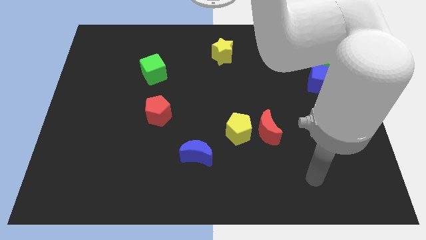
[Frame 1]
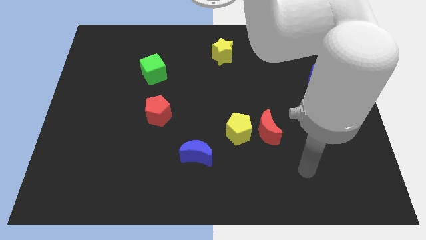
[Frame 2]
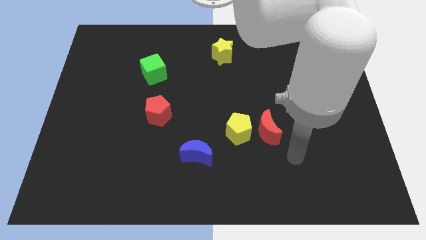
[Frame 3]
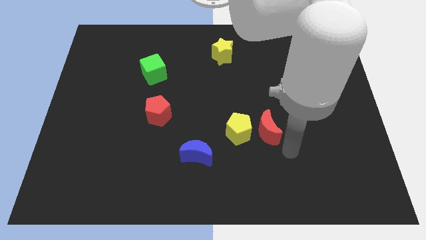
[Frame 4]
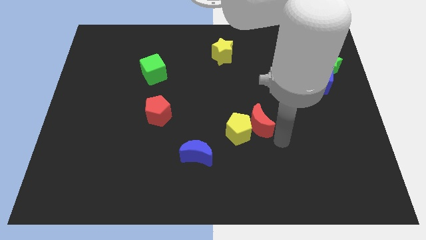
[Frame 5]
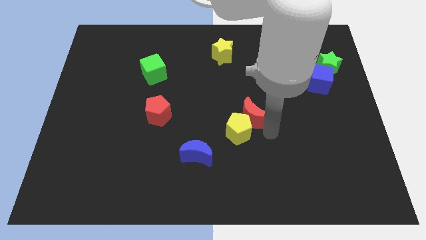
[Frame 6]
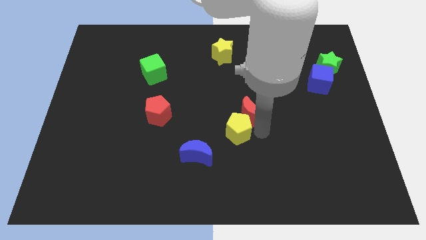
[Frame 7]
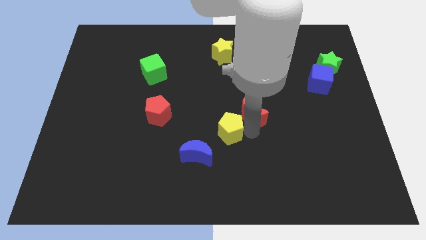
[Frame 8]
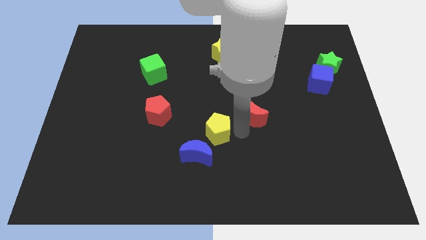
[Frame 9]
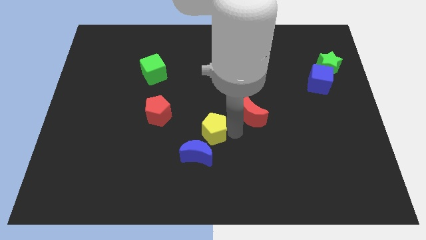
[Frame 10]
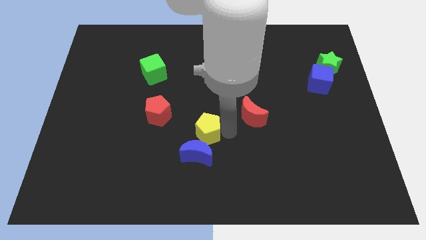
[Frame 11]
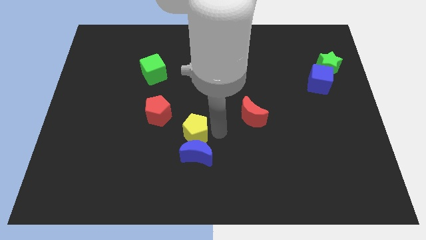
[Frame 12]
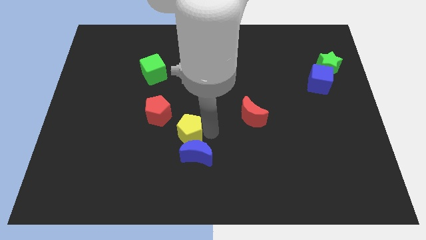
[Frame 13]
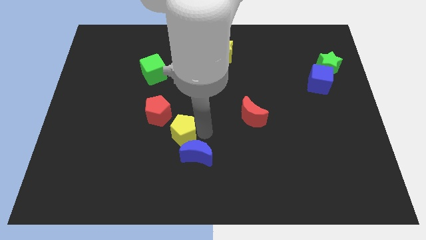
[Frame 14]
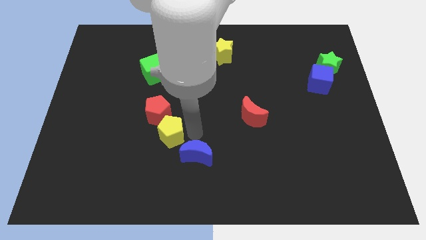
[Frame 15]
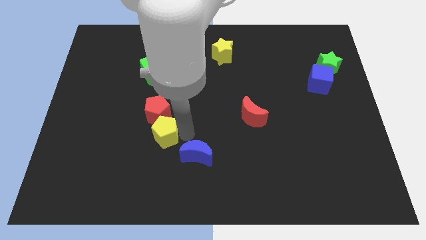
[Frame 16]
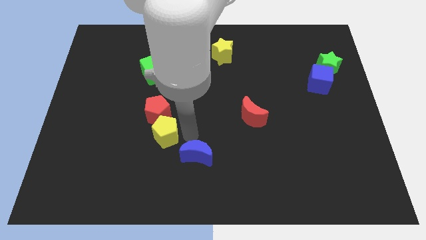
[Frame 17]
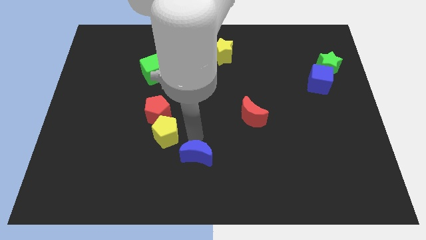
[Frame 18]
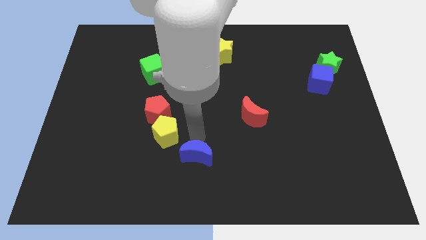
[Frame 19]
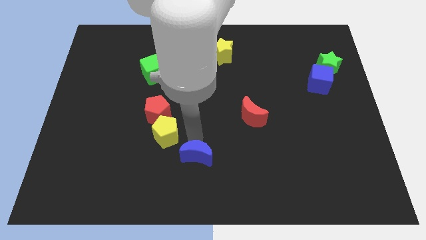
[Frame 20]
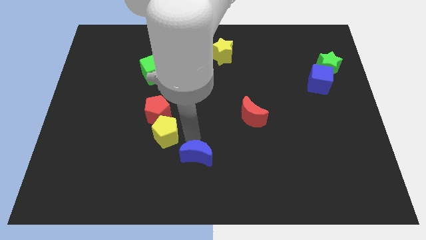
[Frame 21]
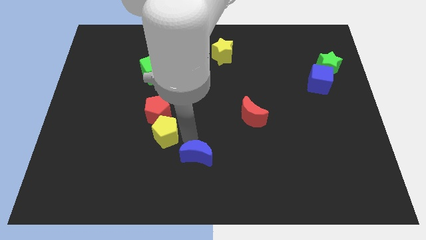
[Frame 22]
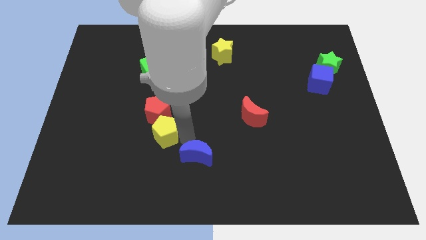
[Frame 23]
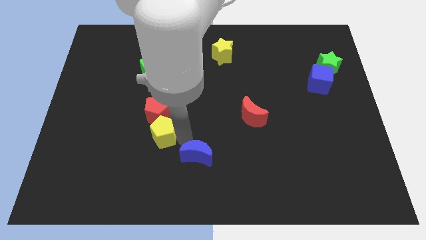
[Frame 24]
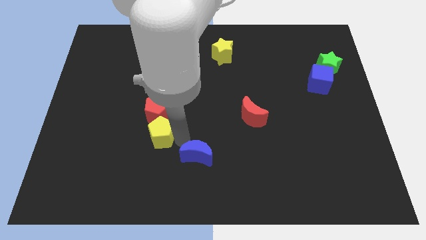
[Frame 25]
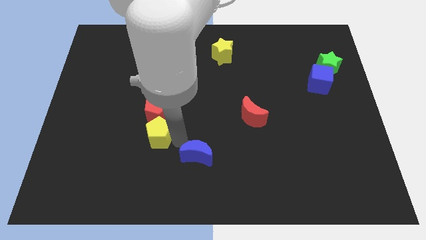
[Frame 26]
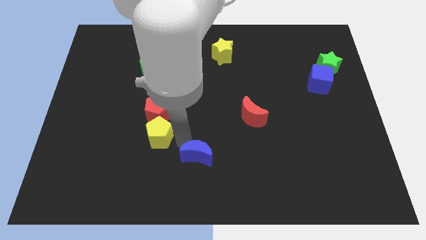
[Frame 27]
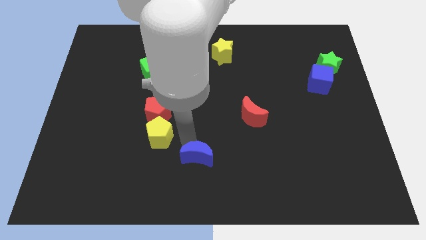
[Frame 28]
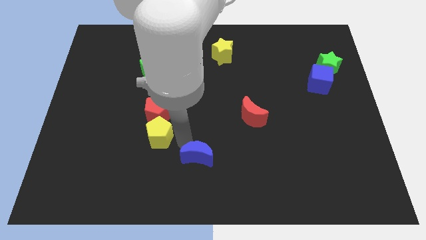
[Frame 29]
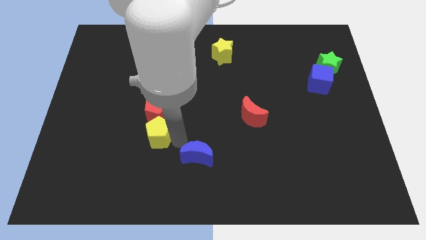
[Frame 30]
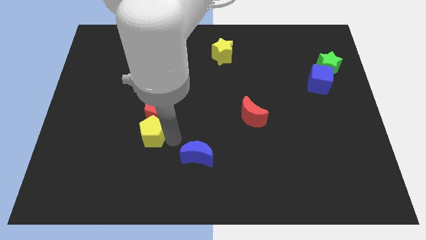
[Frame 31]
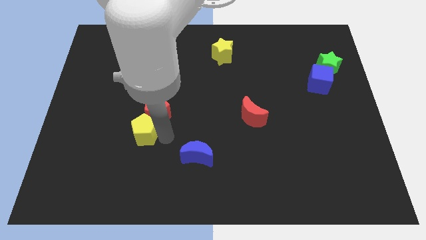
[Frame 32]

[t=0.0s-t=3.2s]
slide the yellow pentagon left

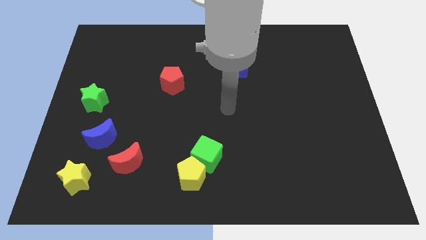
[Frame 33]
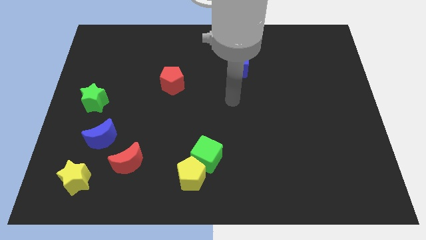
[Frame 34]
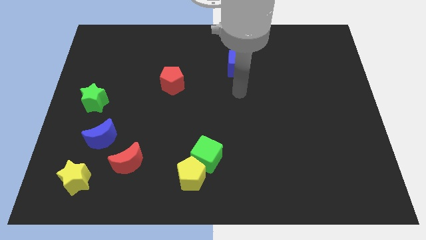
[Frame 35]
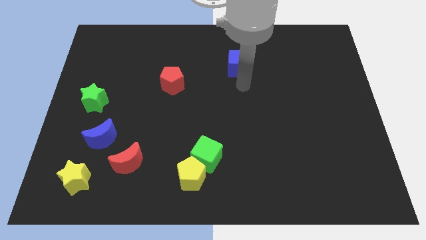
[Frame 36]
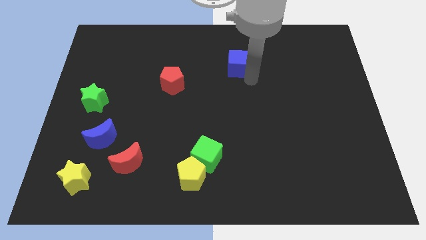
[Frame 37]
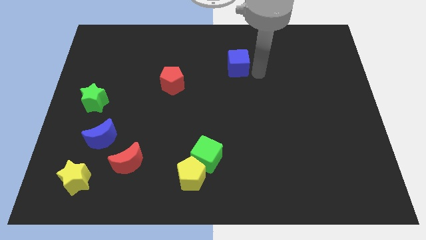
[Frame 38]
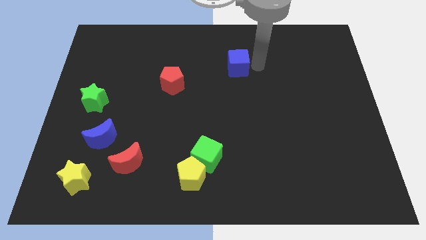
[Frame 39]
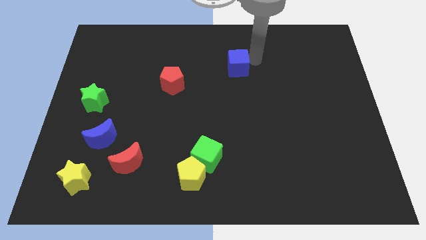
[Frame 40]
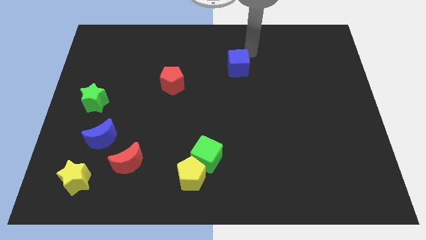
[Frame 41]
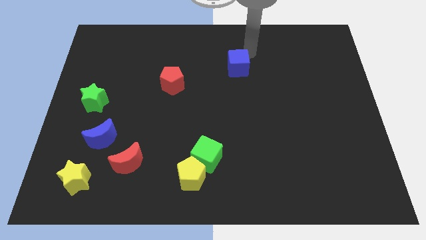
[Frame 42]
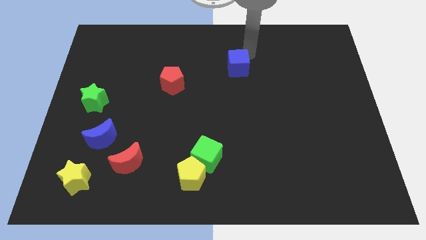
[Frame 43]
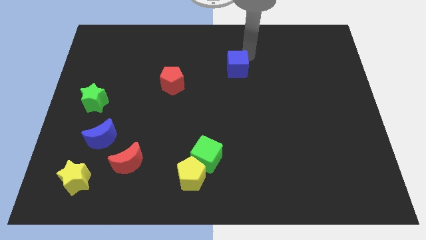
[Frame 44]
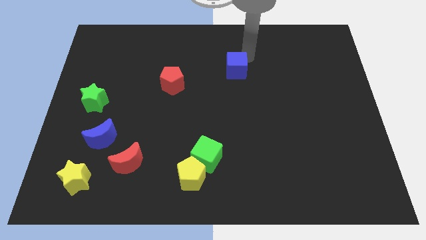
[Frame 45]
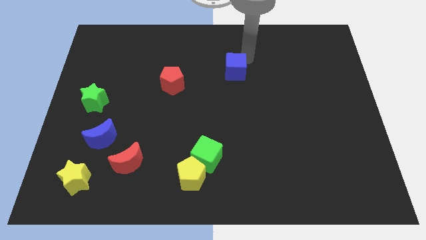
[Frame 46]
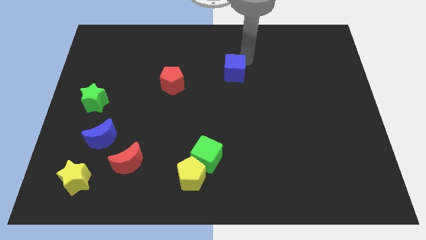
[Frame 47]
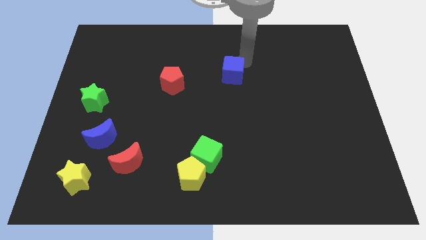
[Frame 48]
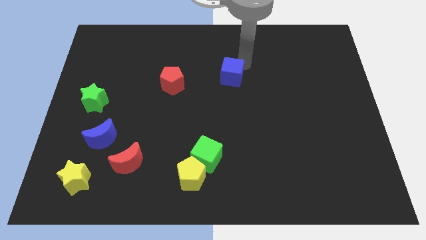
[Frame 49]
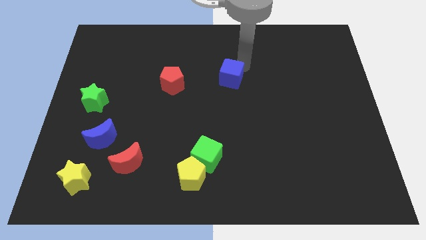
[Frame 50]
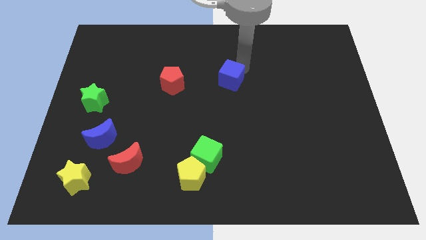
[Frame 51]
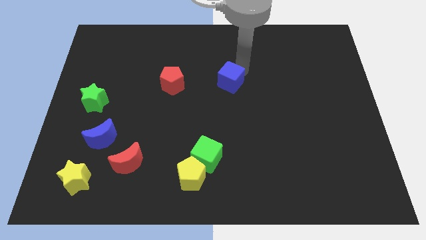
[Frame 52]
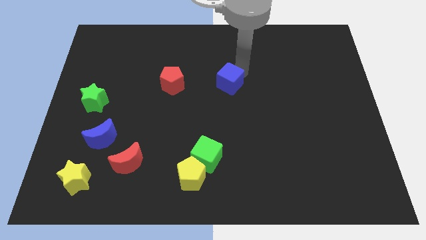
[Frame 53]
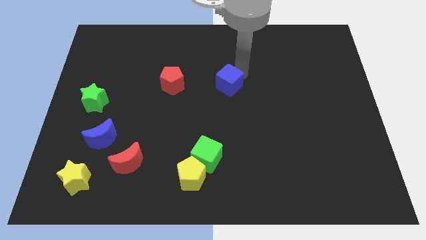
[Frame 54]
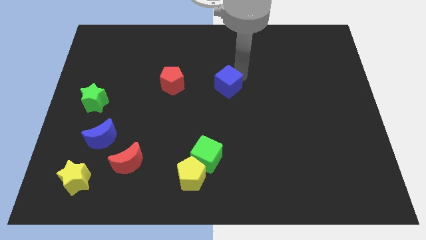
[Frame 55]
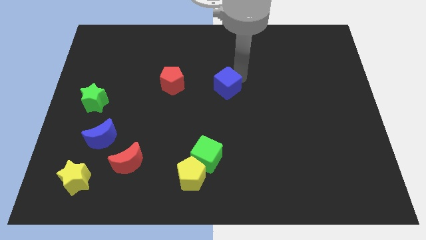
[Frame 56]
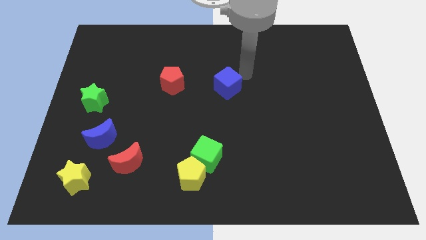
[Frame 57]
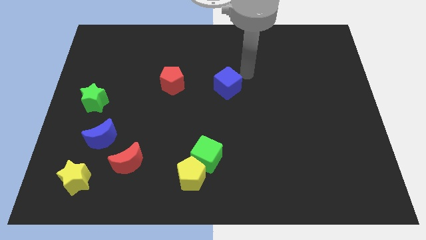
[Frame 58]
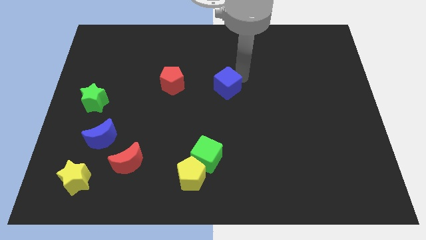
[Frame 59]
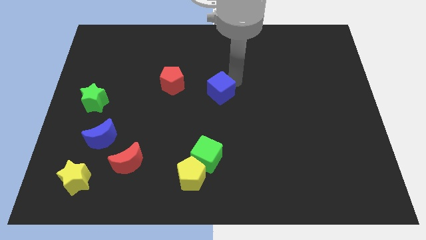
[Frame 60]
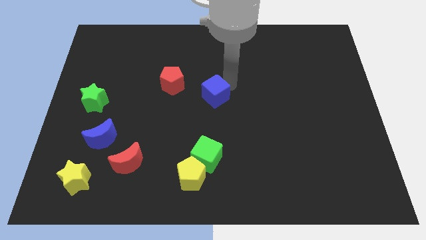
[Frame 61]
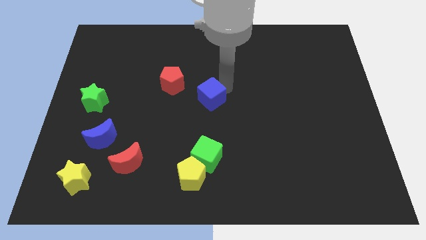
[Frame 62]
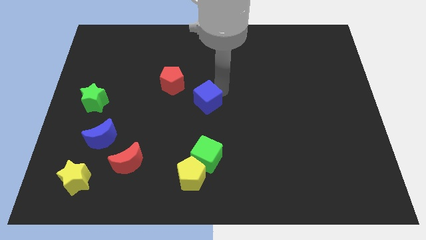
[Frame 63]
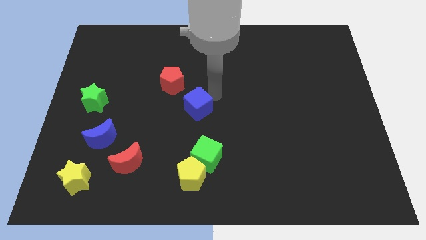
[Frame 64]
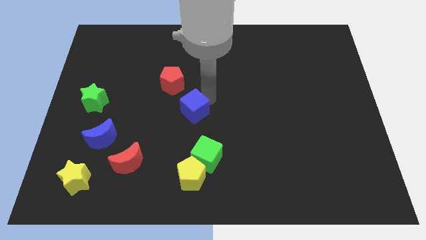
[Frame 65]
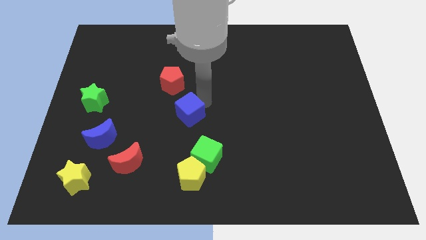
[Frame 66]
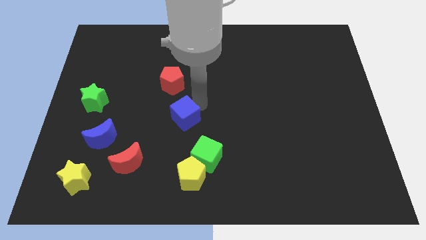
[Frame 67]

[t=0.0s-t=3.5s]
move the blue cube down and then left

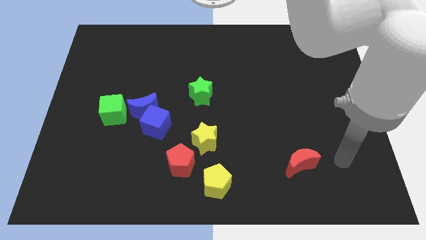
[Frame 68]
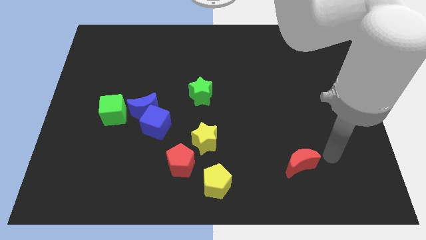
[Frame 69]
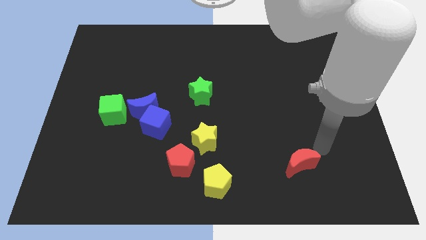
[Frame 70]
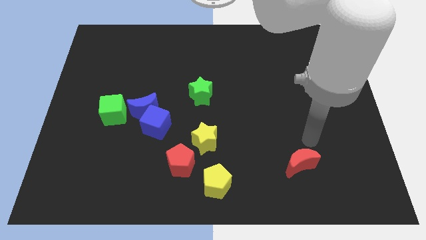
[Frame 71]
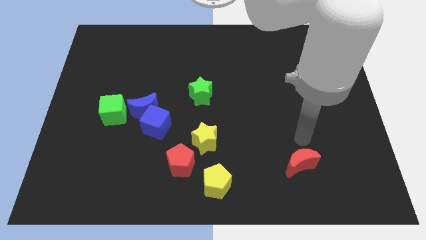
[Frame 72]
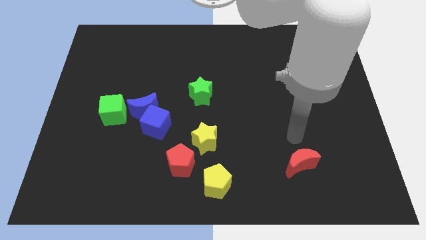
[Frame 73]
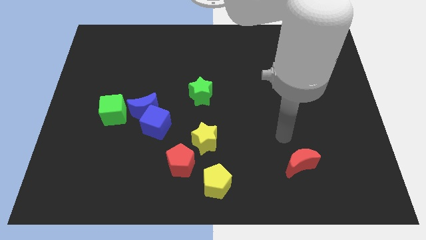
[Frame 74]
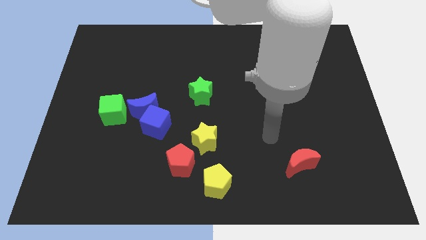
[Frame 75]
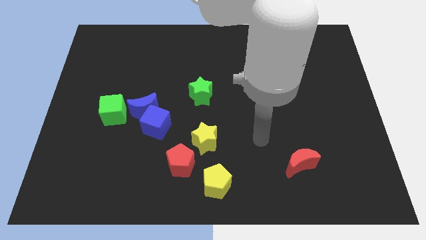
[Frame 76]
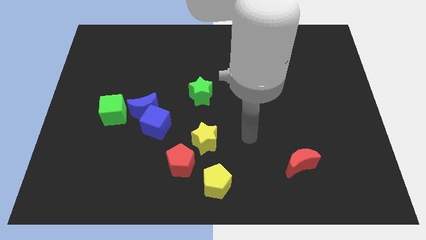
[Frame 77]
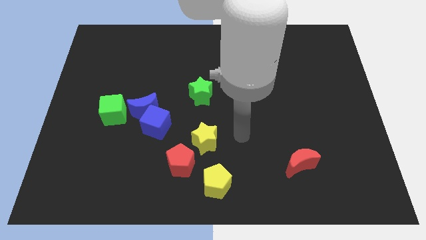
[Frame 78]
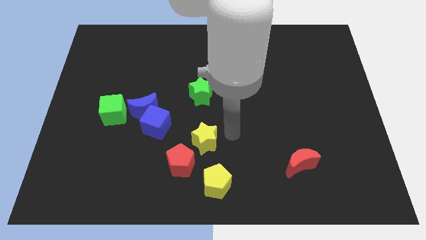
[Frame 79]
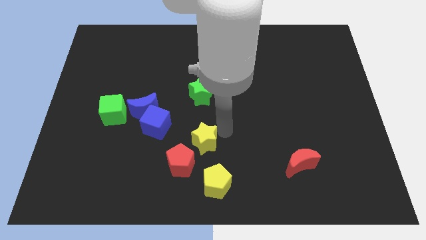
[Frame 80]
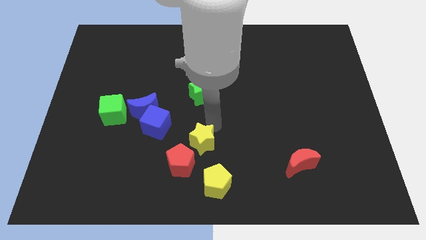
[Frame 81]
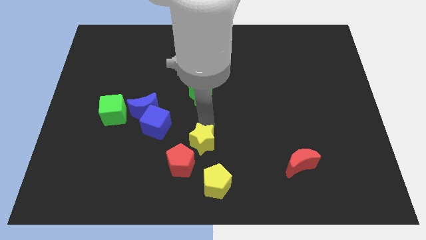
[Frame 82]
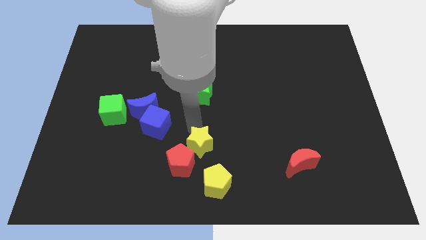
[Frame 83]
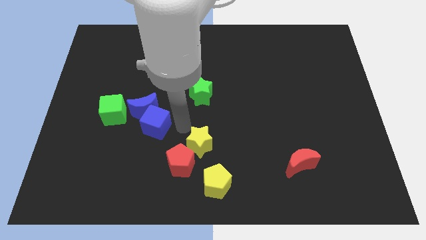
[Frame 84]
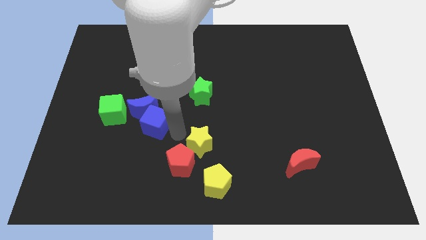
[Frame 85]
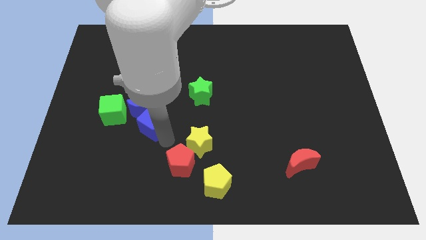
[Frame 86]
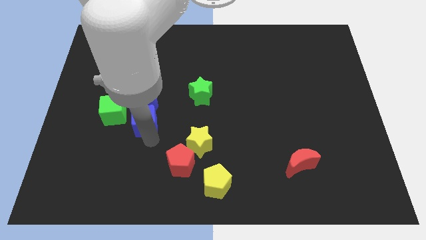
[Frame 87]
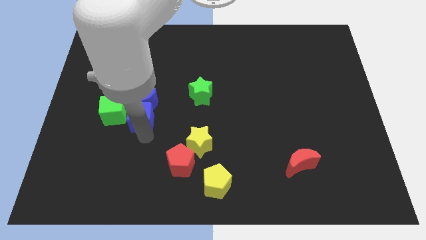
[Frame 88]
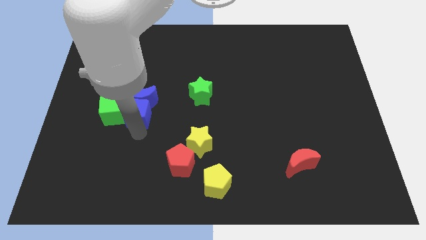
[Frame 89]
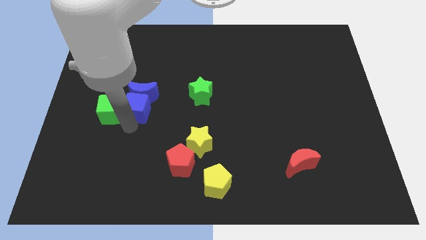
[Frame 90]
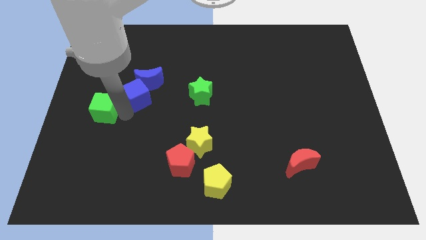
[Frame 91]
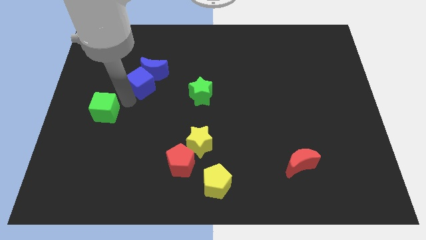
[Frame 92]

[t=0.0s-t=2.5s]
move the blue moon up and right slightly
